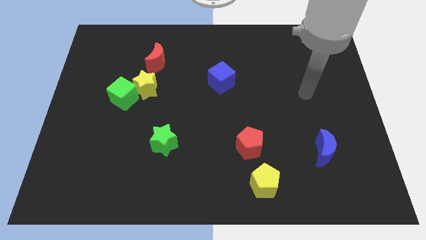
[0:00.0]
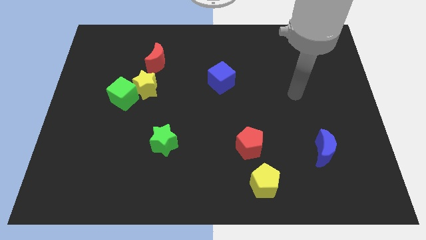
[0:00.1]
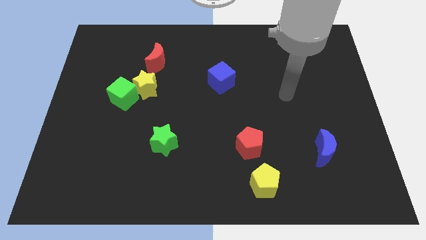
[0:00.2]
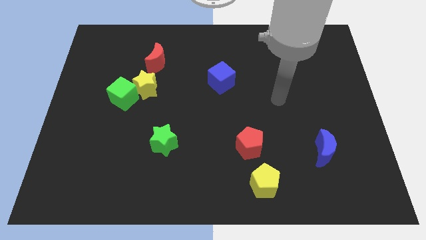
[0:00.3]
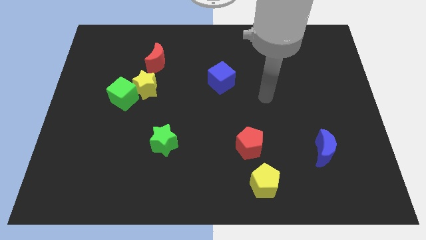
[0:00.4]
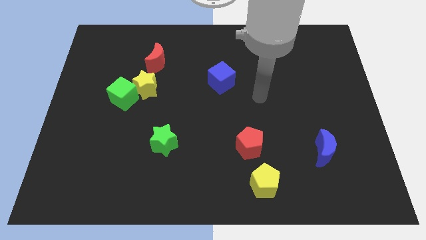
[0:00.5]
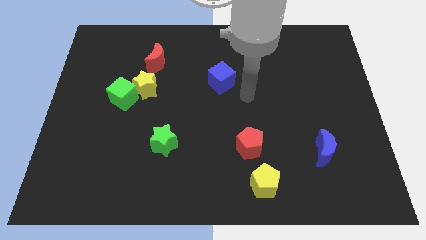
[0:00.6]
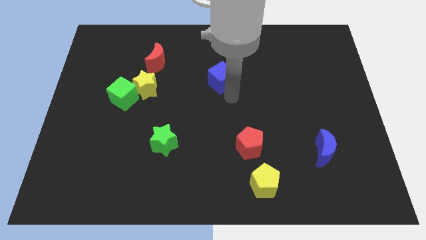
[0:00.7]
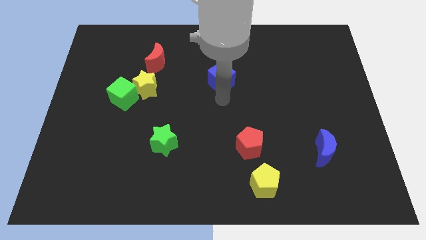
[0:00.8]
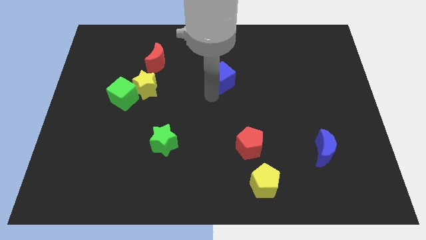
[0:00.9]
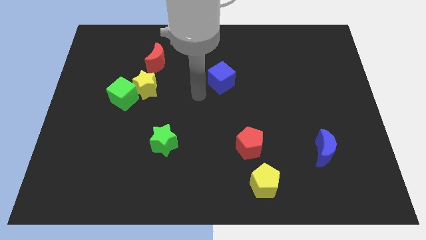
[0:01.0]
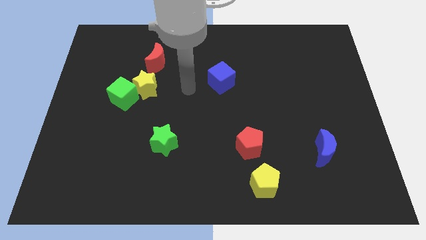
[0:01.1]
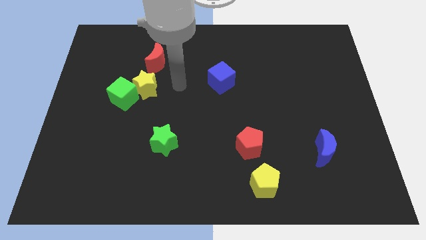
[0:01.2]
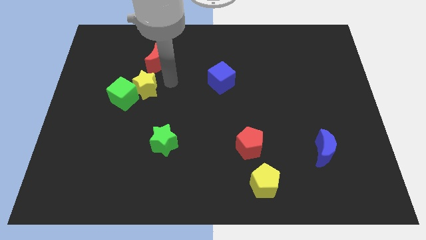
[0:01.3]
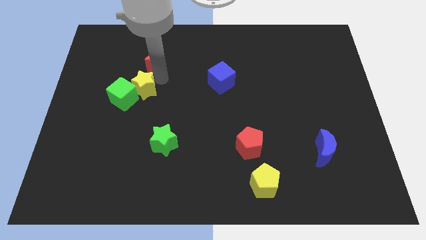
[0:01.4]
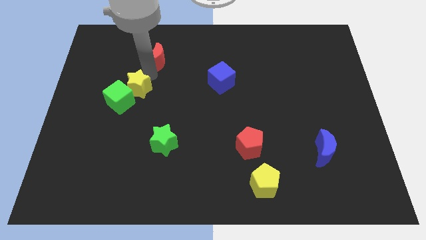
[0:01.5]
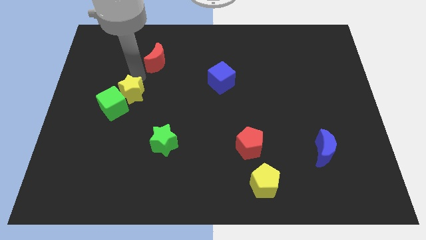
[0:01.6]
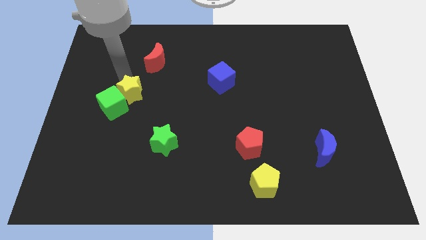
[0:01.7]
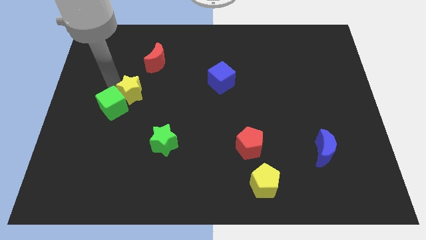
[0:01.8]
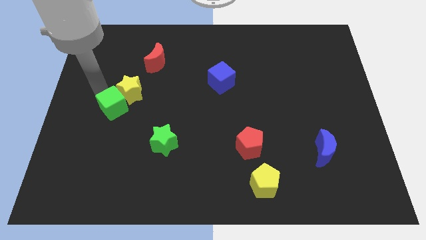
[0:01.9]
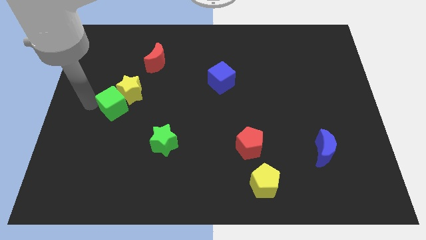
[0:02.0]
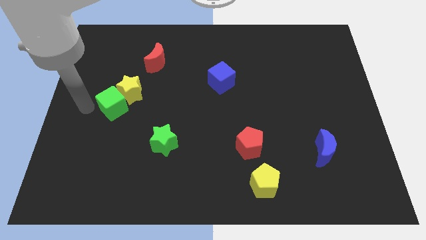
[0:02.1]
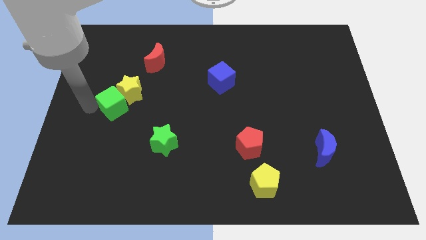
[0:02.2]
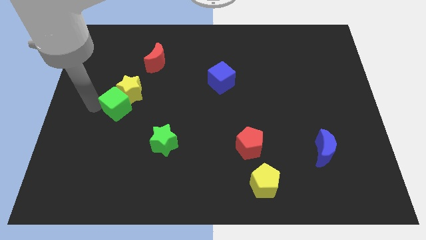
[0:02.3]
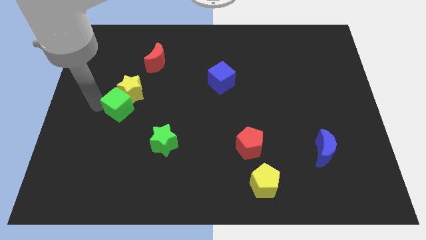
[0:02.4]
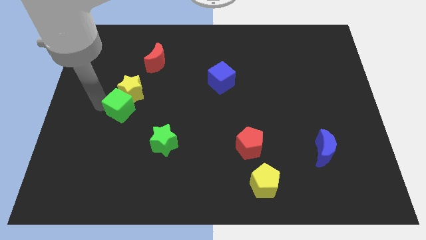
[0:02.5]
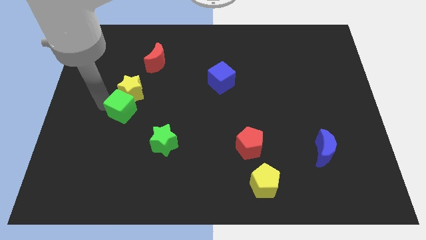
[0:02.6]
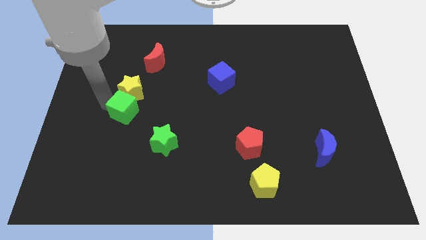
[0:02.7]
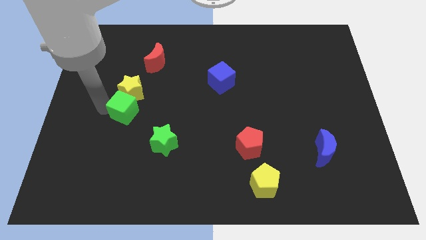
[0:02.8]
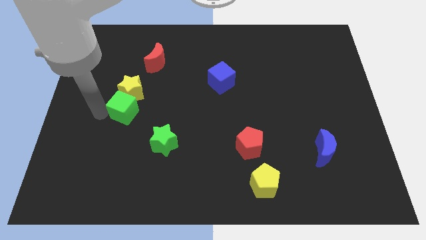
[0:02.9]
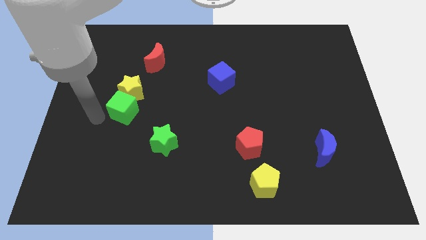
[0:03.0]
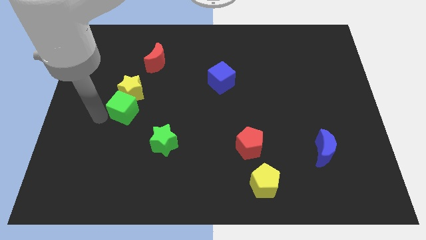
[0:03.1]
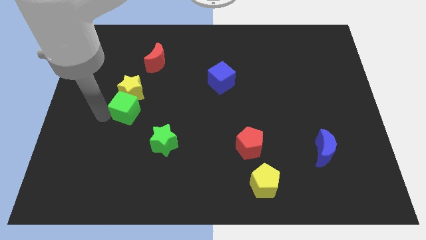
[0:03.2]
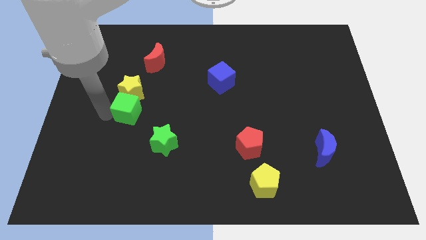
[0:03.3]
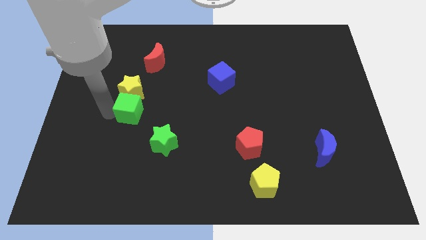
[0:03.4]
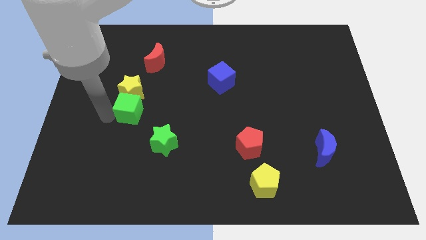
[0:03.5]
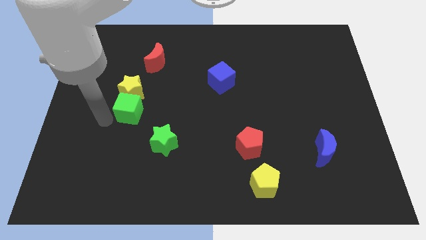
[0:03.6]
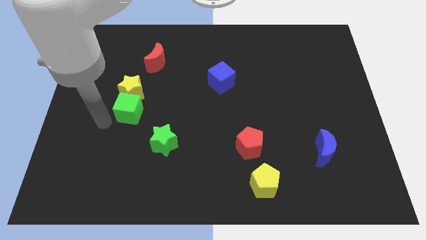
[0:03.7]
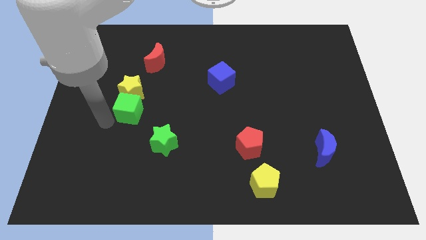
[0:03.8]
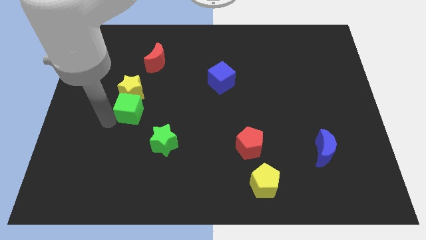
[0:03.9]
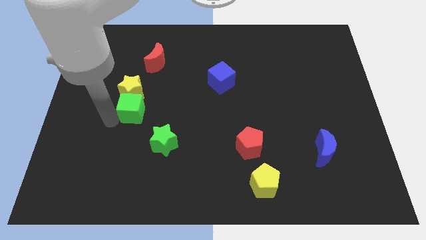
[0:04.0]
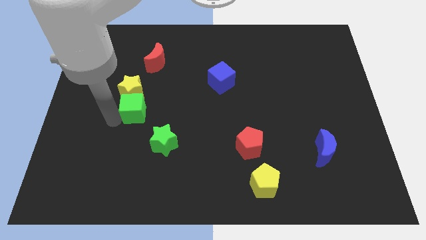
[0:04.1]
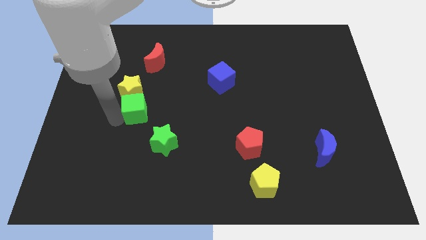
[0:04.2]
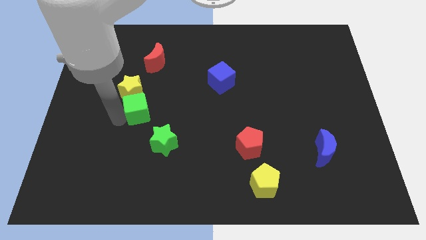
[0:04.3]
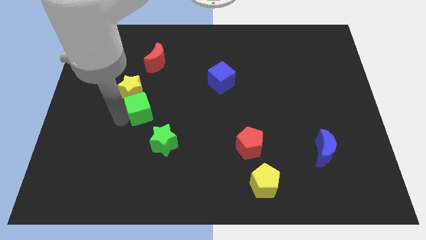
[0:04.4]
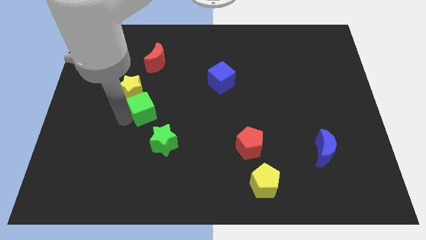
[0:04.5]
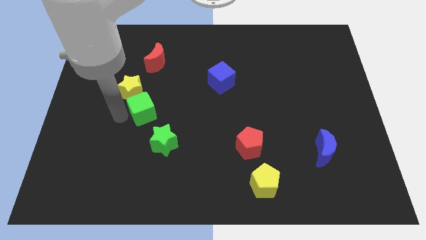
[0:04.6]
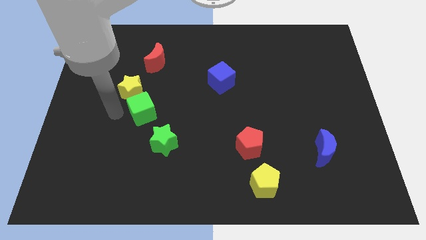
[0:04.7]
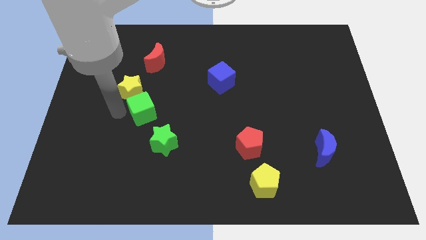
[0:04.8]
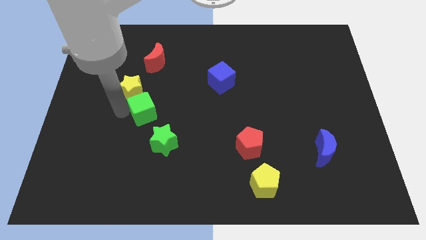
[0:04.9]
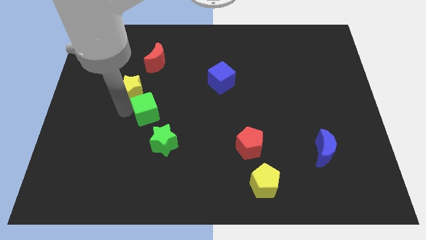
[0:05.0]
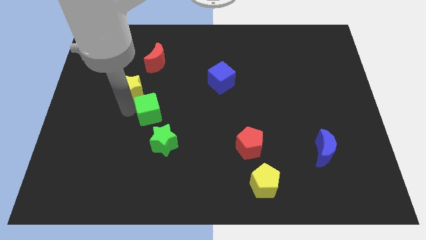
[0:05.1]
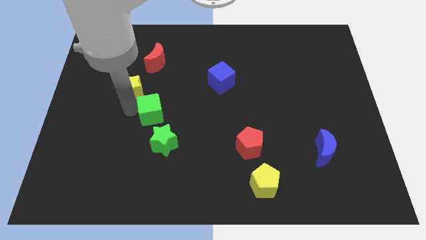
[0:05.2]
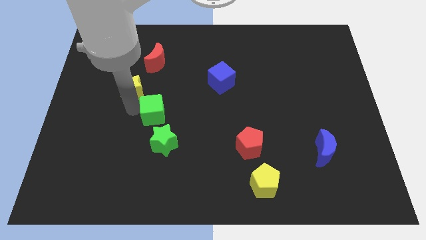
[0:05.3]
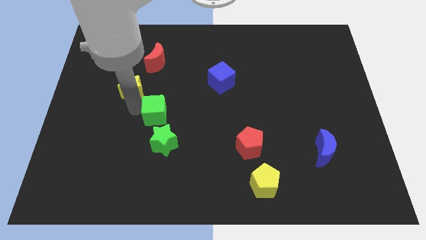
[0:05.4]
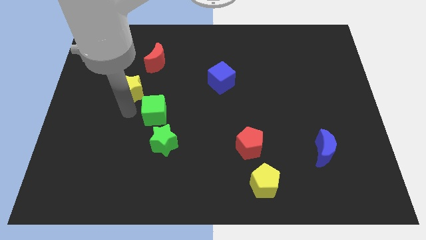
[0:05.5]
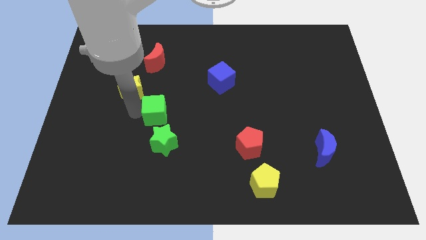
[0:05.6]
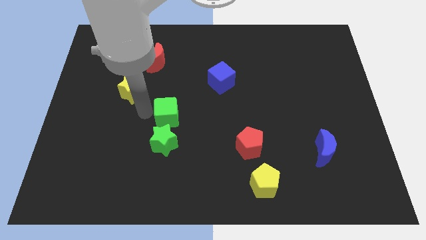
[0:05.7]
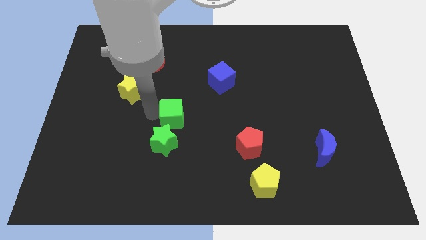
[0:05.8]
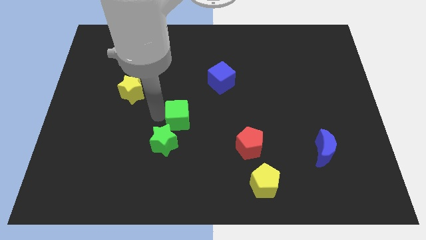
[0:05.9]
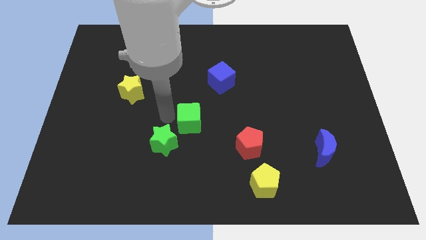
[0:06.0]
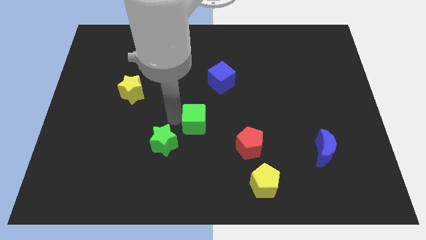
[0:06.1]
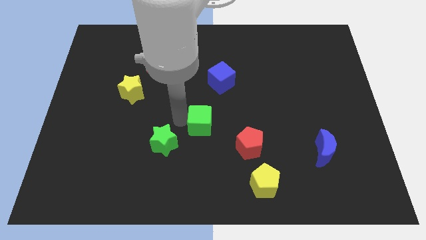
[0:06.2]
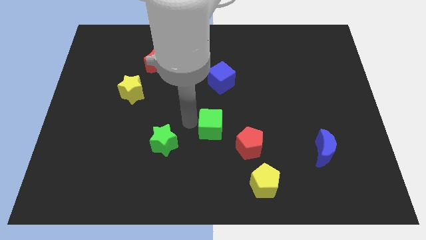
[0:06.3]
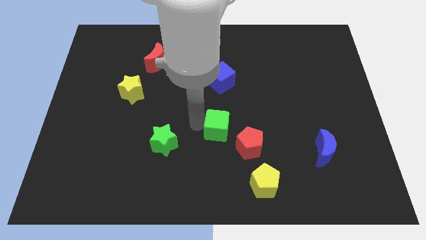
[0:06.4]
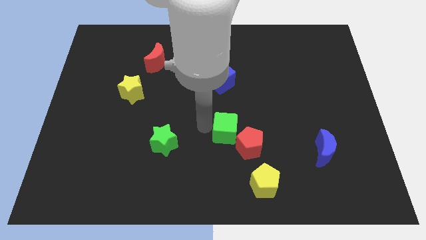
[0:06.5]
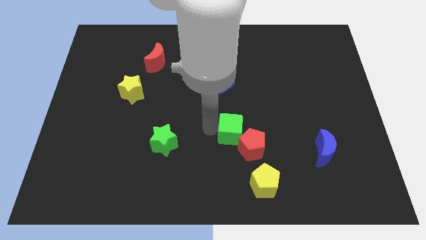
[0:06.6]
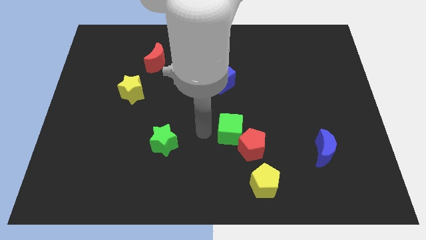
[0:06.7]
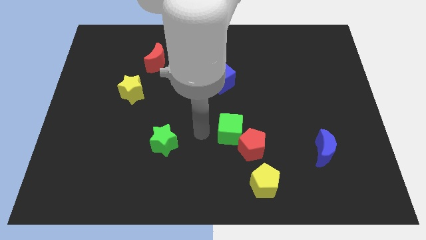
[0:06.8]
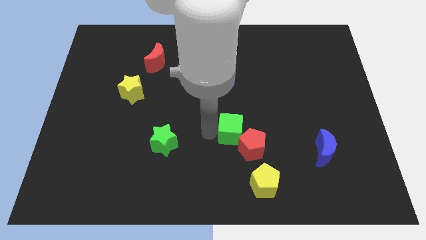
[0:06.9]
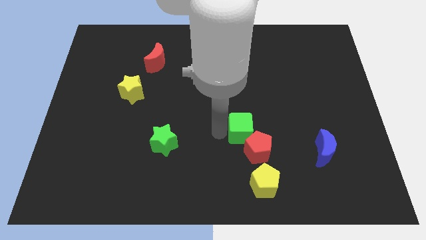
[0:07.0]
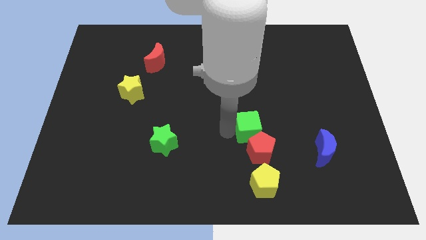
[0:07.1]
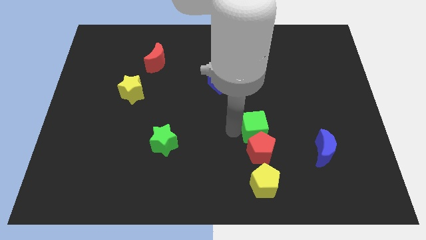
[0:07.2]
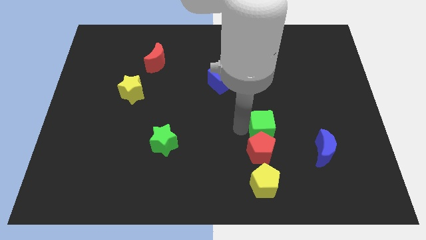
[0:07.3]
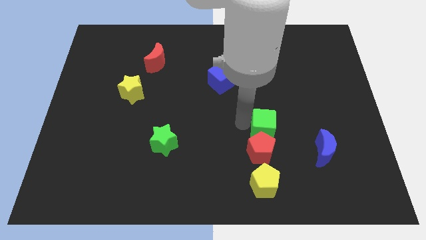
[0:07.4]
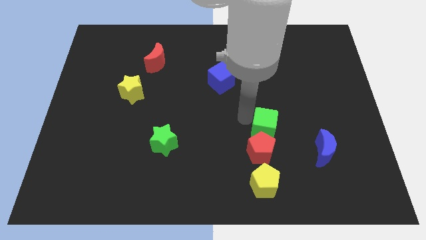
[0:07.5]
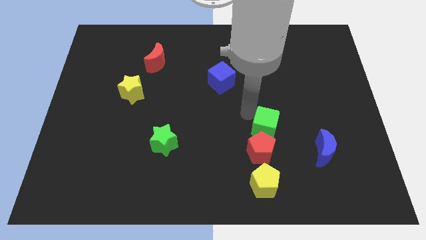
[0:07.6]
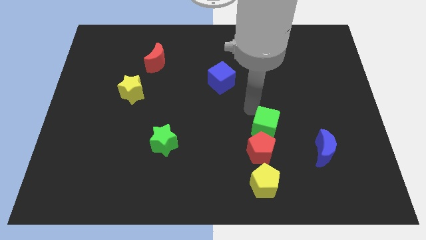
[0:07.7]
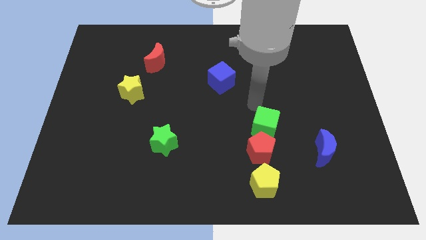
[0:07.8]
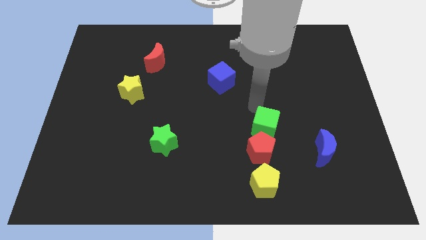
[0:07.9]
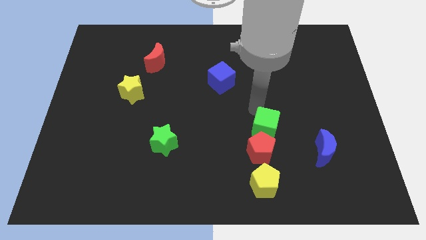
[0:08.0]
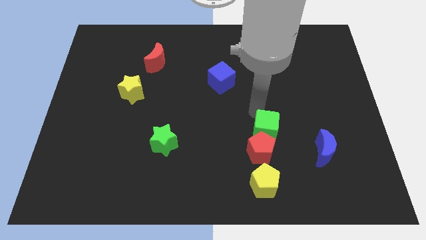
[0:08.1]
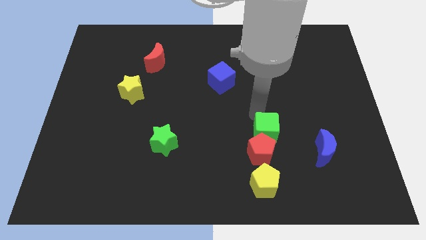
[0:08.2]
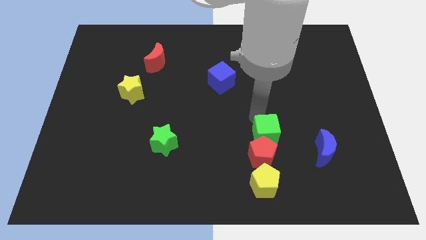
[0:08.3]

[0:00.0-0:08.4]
slide the green cube to the left of the blue moon

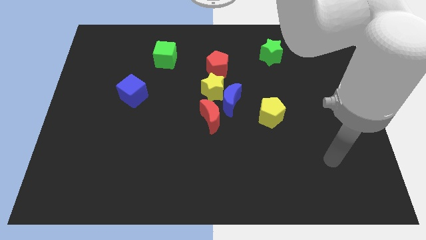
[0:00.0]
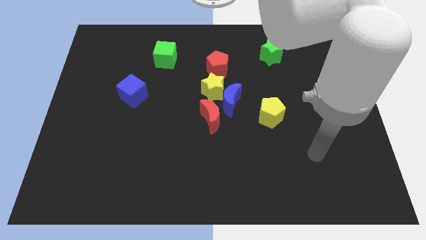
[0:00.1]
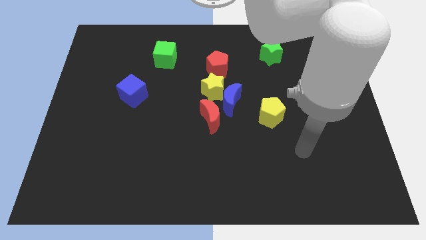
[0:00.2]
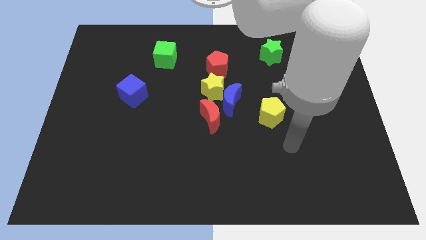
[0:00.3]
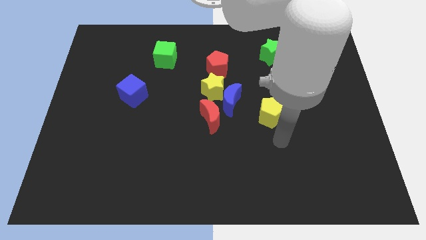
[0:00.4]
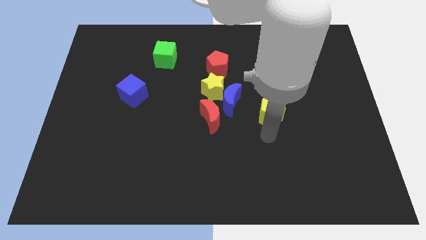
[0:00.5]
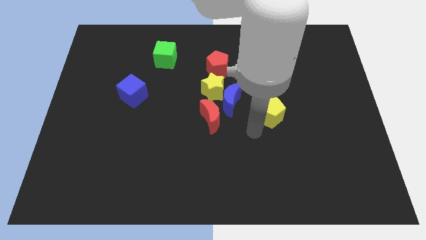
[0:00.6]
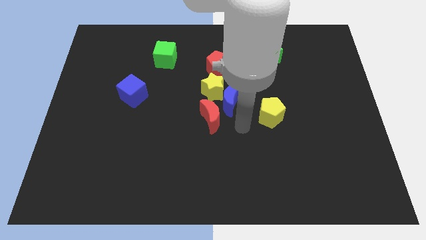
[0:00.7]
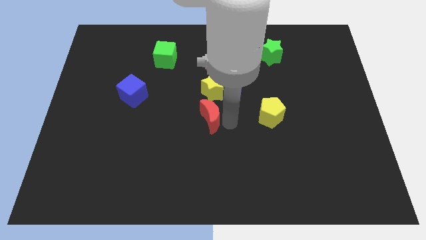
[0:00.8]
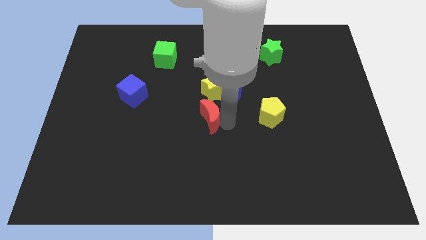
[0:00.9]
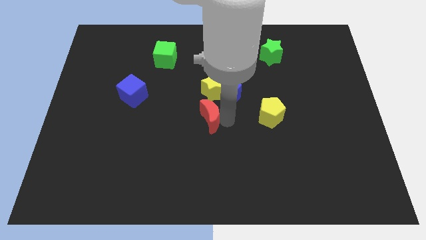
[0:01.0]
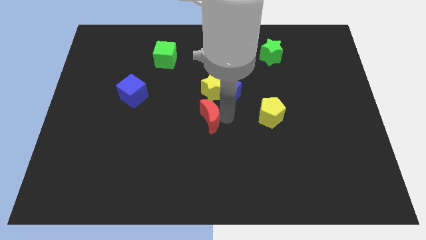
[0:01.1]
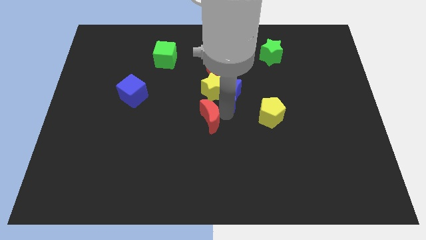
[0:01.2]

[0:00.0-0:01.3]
move the blue moon diagonally up and to the right of the yellow star
